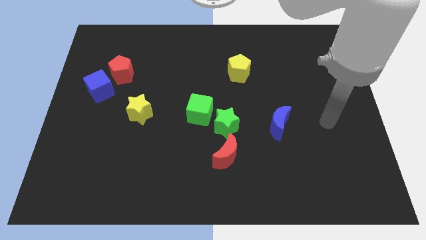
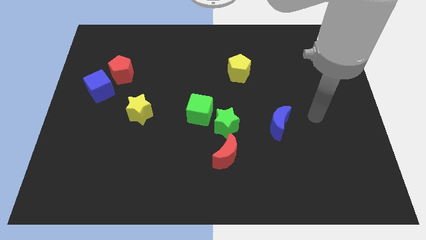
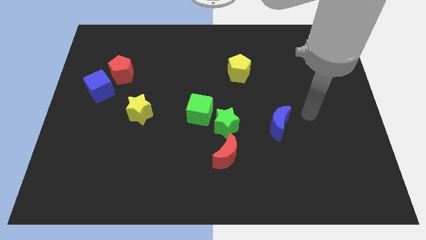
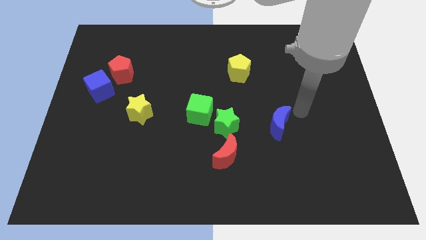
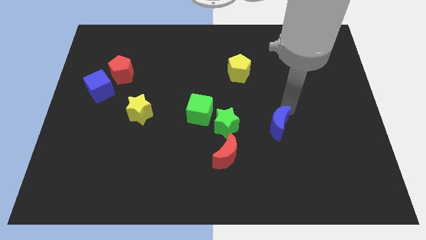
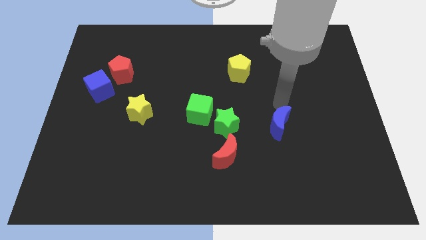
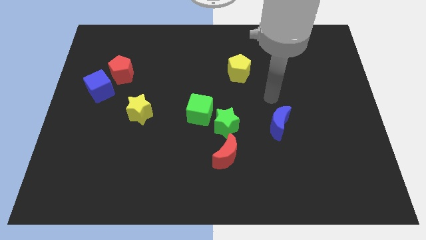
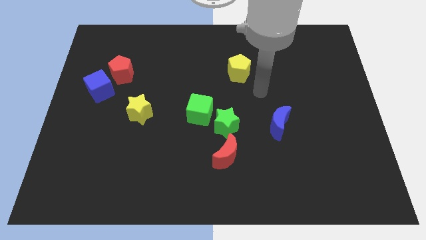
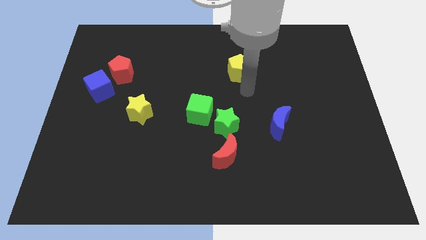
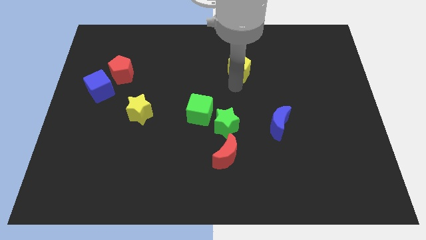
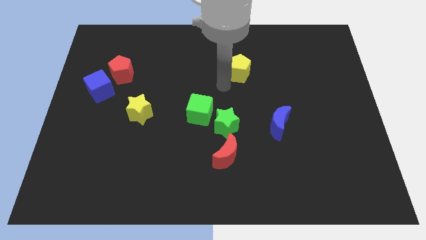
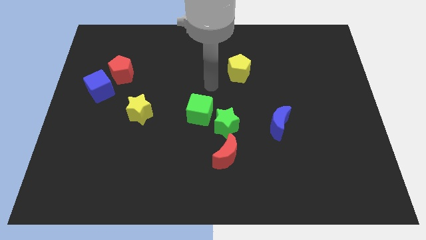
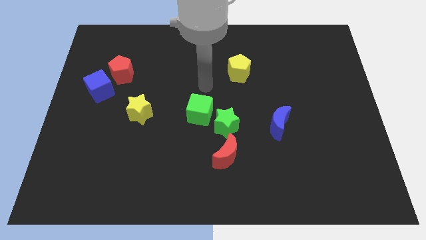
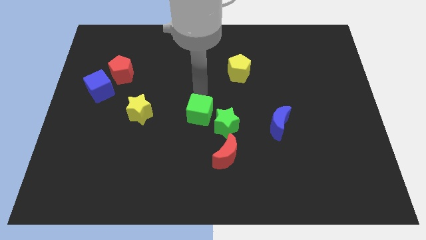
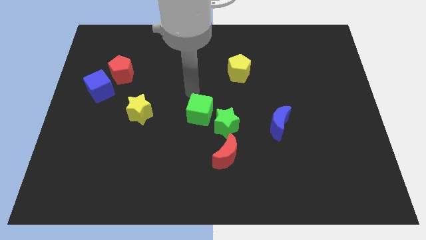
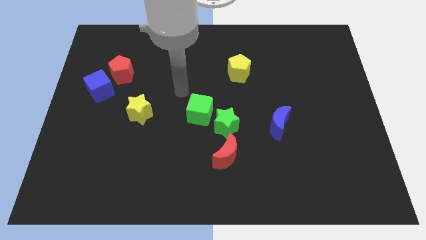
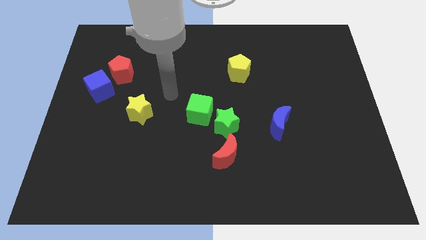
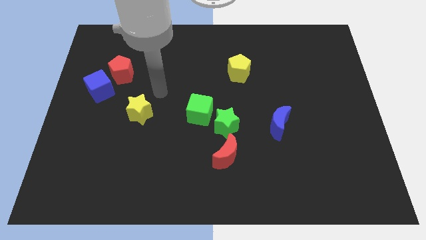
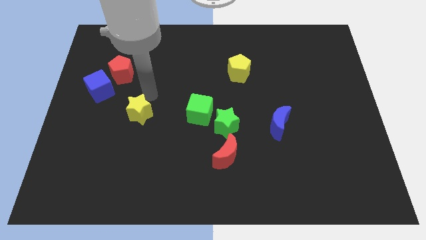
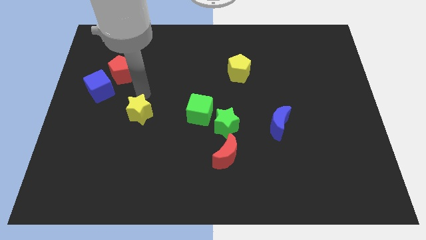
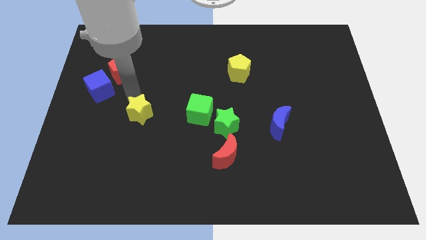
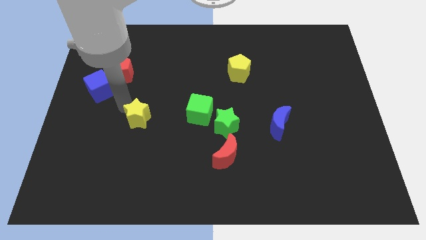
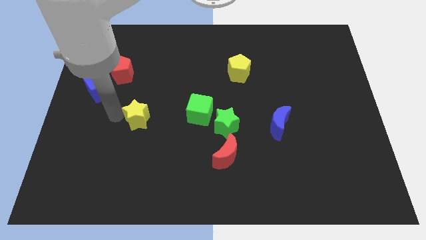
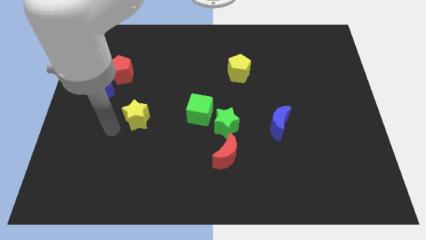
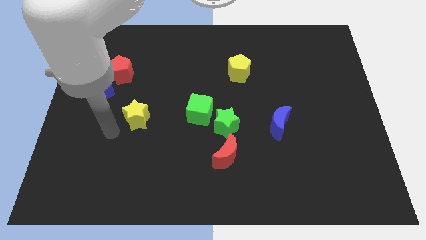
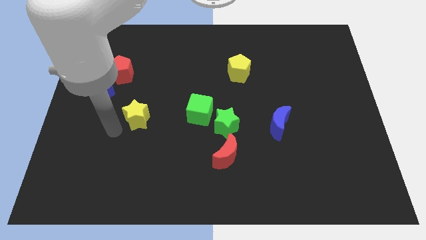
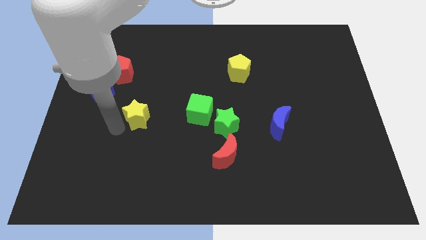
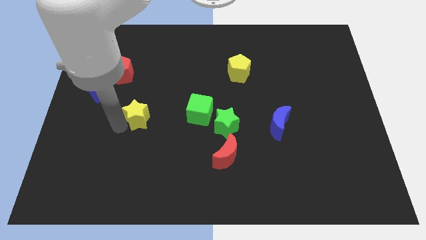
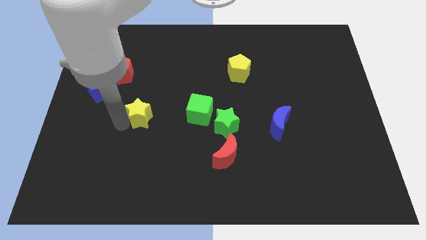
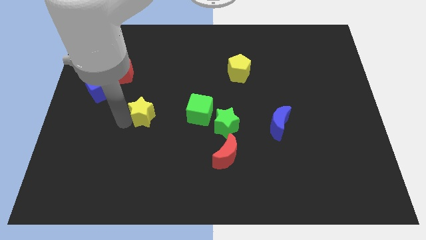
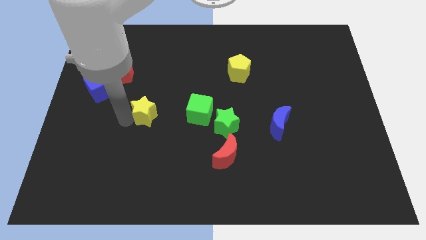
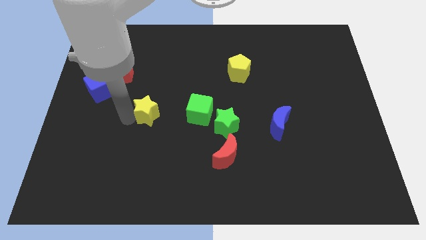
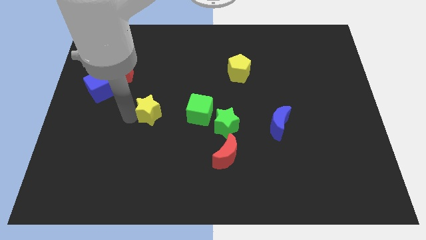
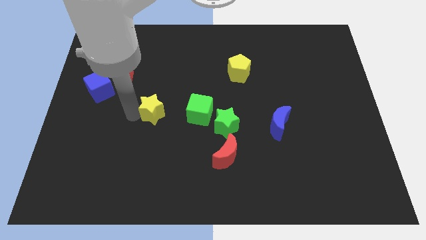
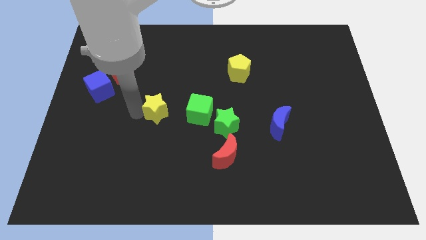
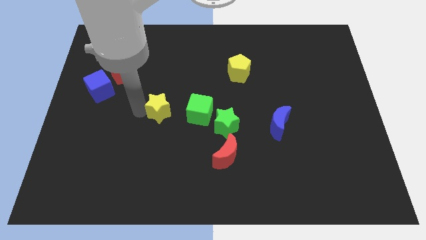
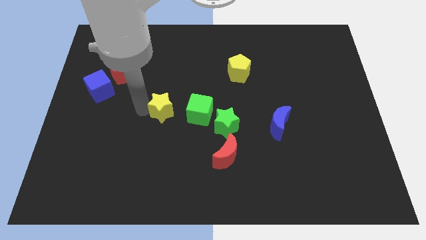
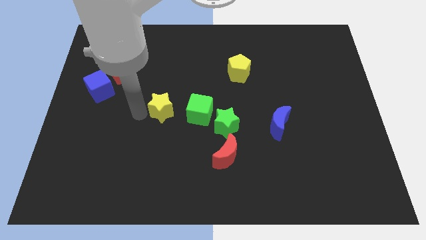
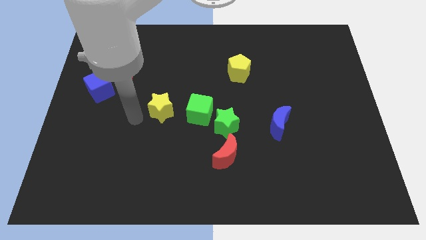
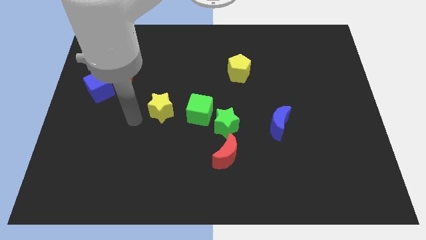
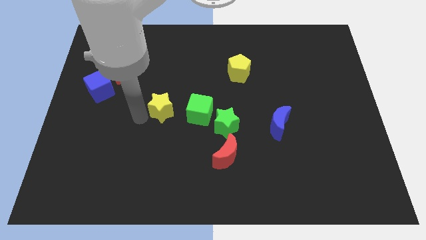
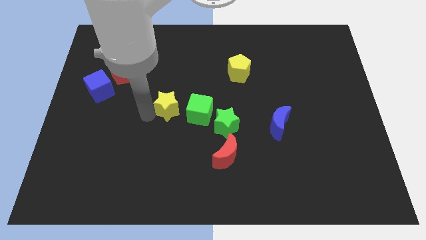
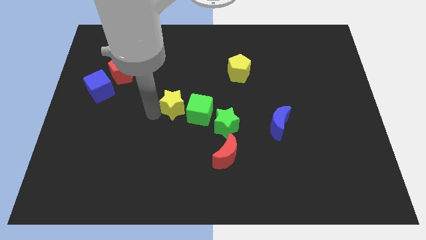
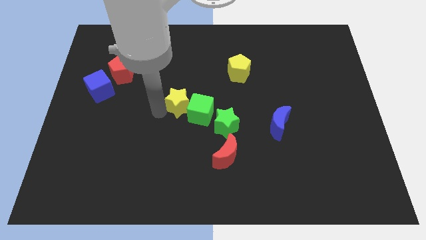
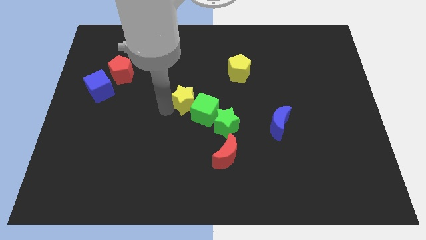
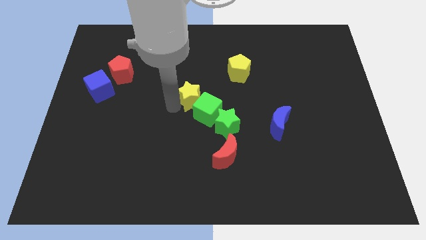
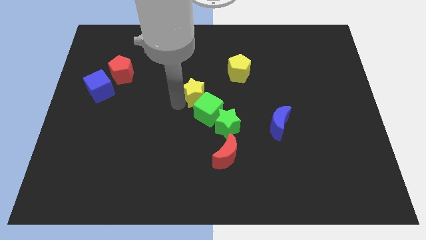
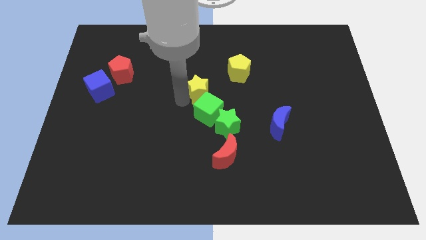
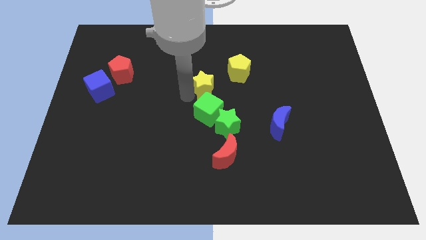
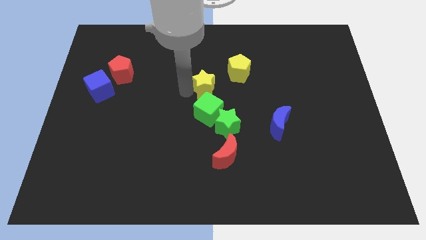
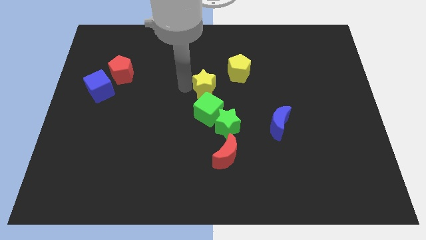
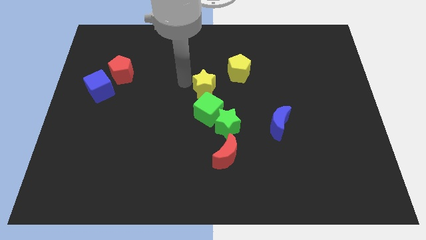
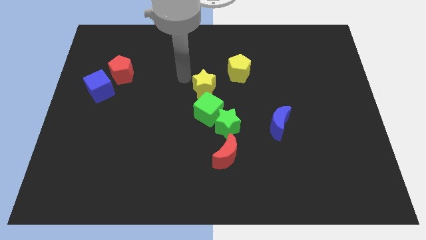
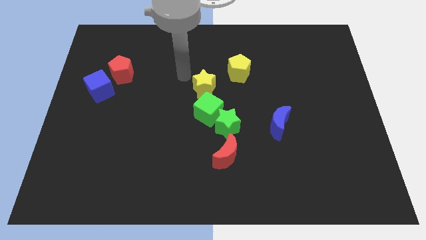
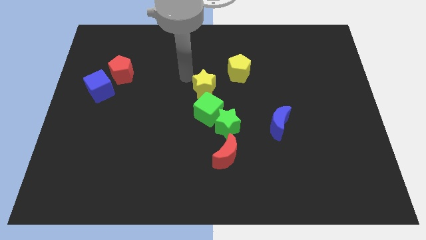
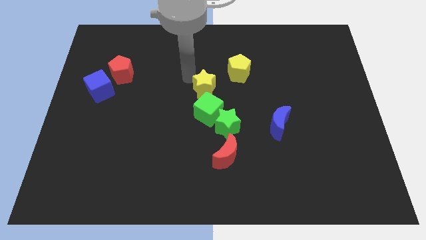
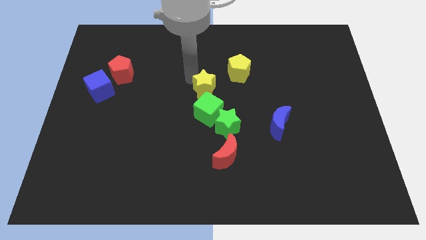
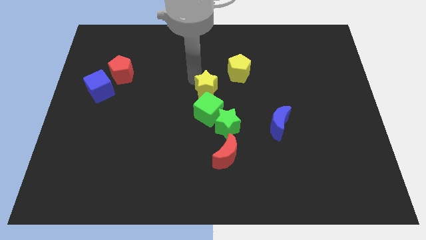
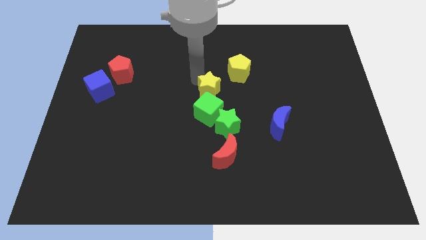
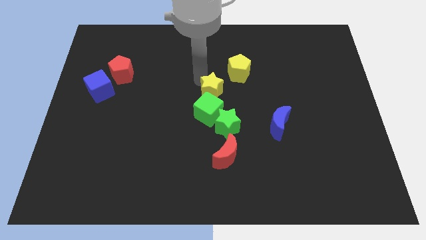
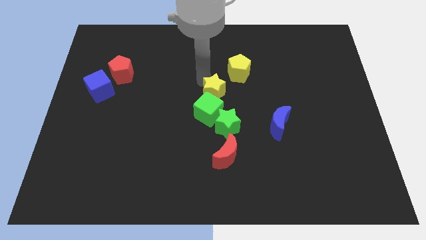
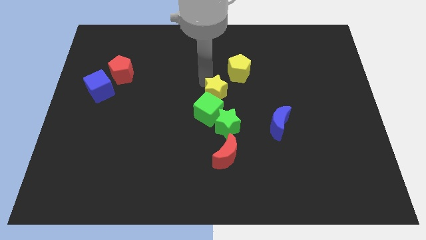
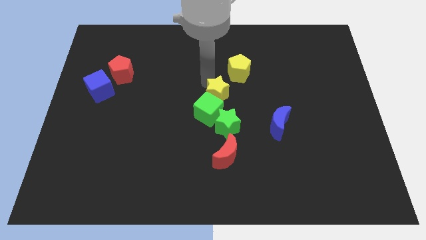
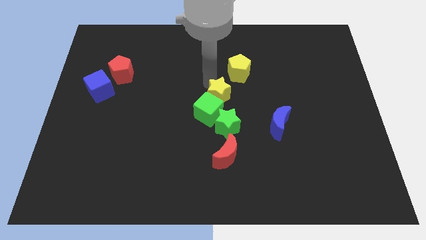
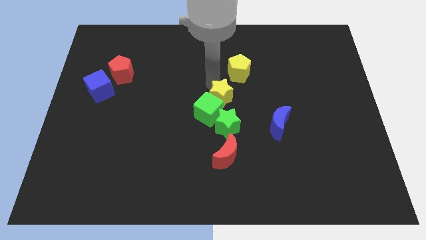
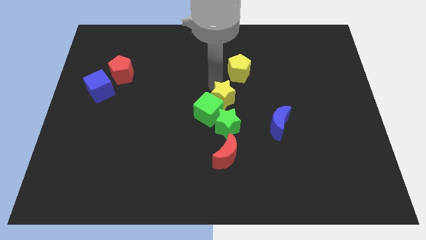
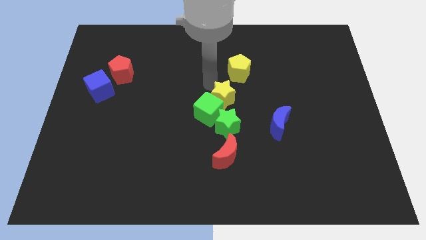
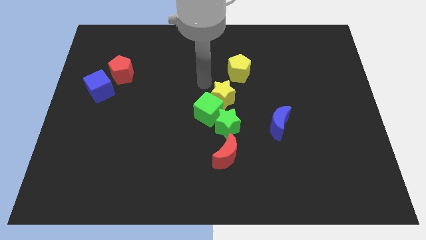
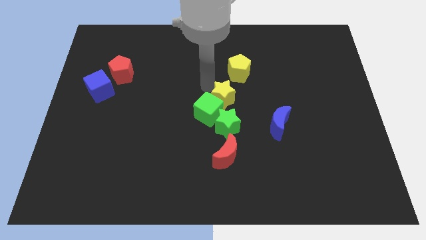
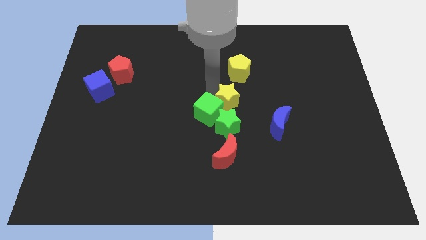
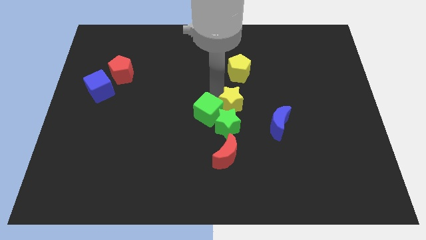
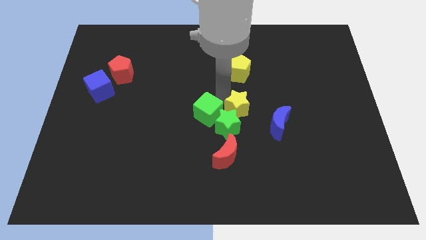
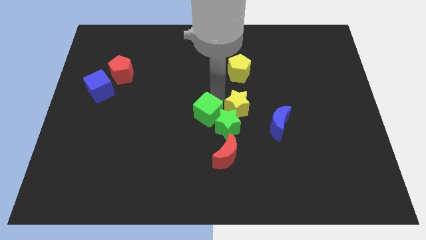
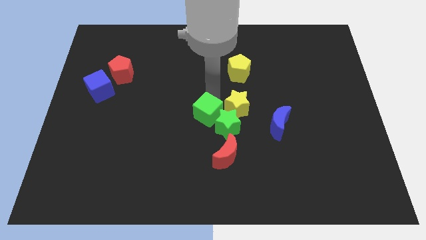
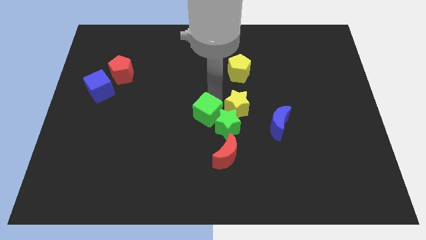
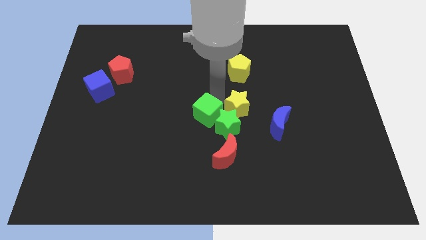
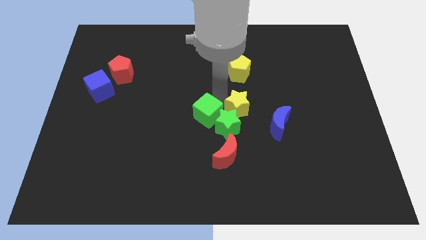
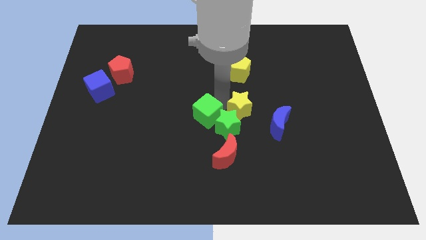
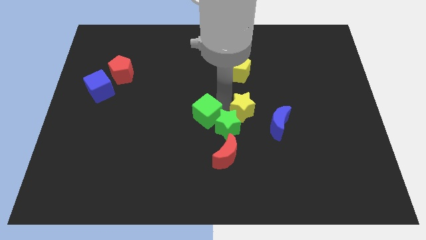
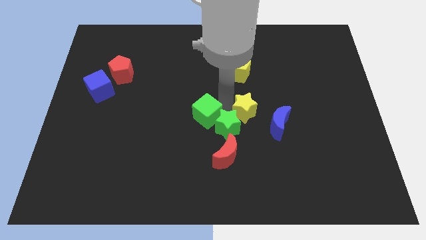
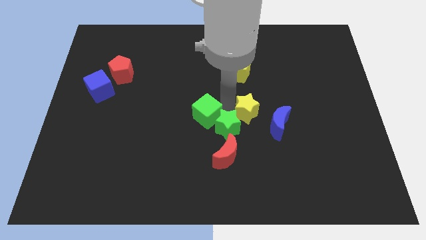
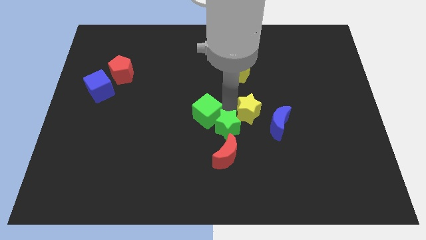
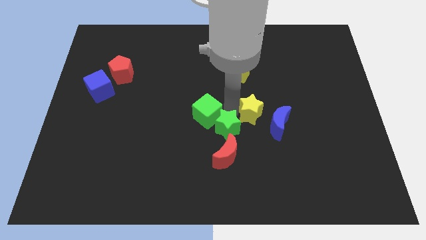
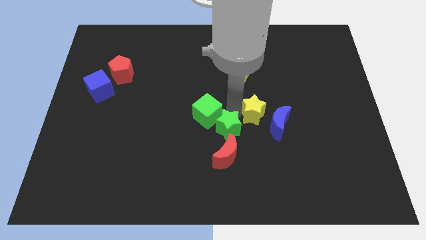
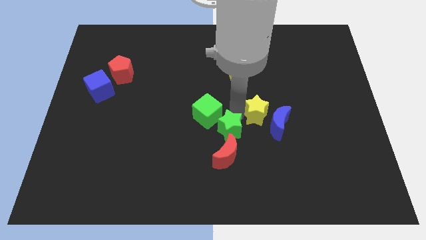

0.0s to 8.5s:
push the yellow star towards the blue moon
